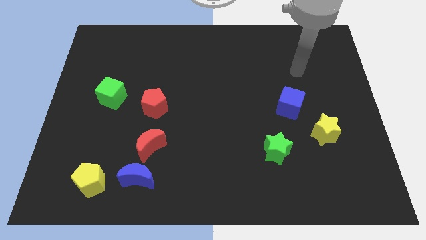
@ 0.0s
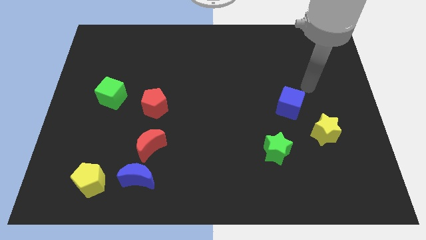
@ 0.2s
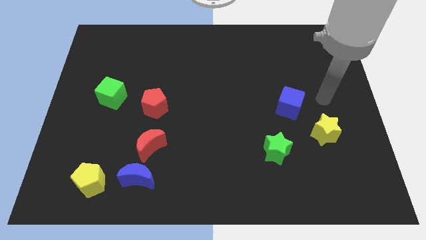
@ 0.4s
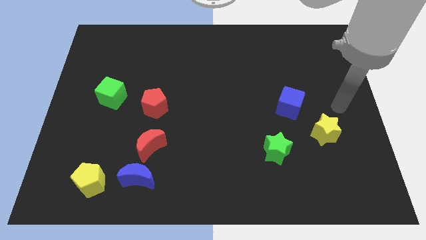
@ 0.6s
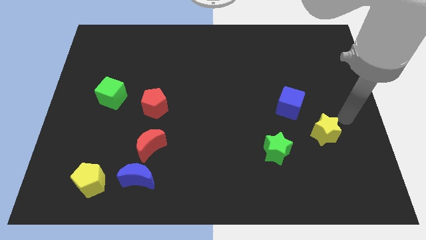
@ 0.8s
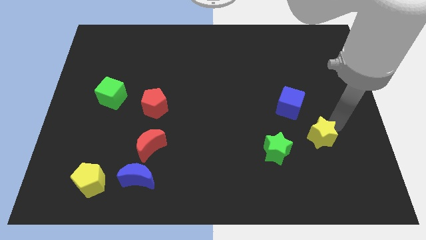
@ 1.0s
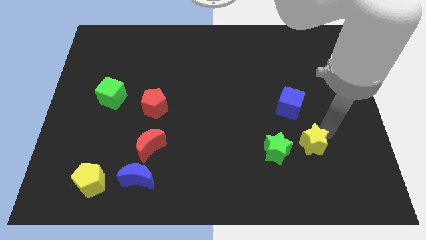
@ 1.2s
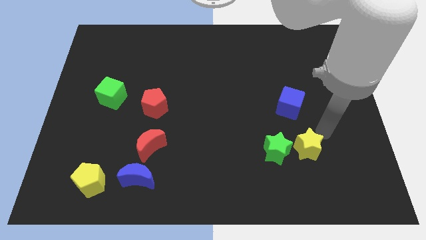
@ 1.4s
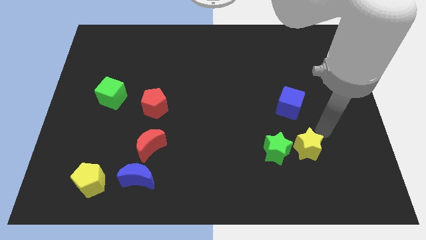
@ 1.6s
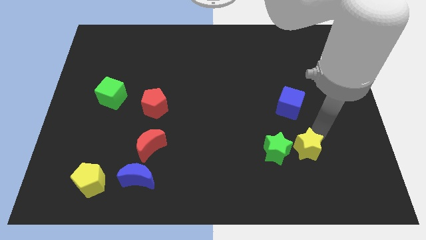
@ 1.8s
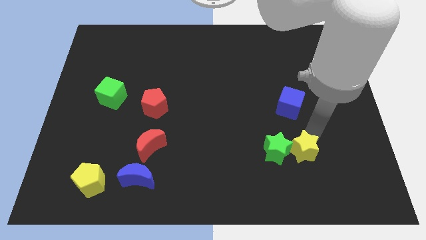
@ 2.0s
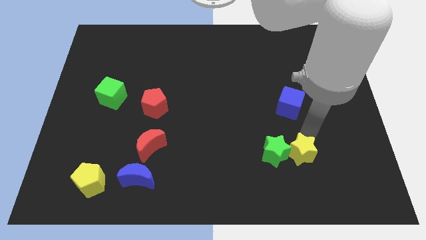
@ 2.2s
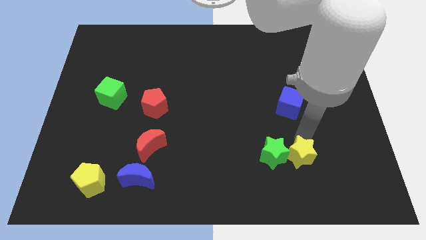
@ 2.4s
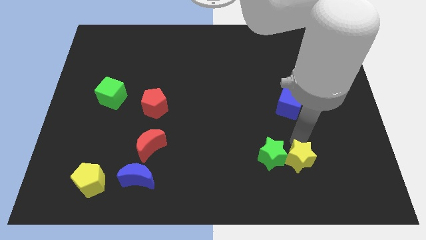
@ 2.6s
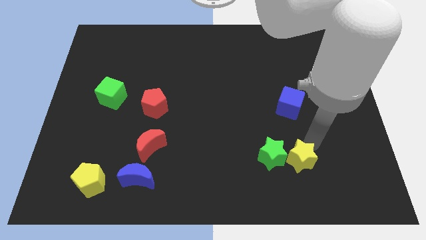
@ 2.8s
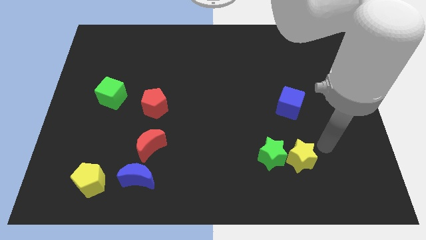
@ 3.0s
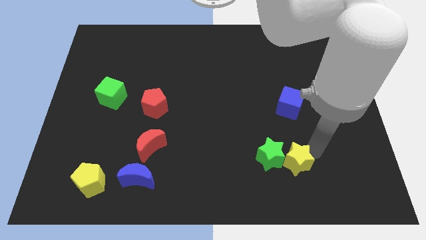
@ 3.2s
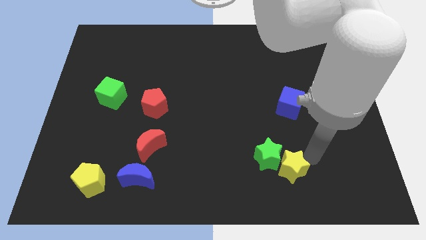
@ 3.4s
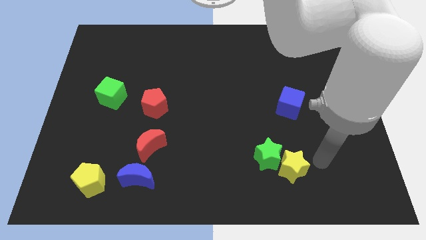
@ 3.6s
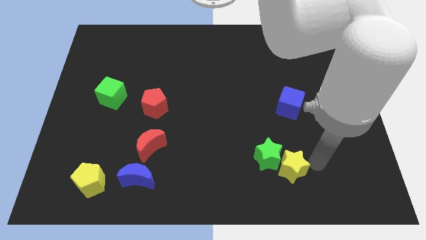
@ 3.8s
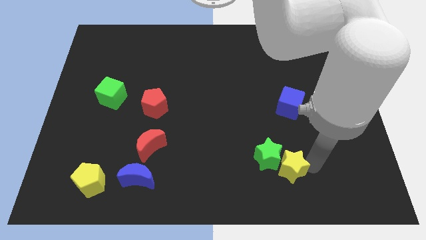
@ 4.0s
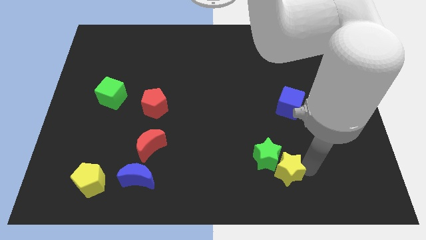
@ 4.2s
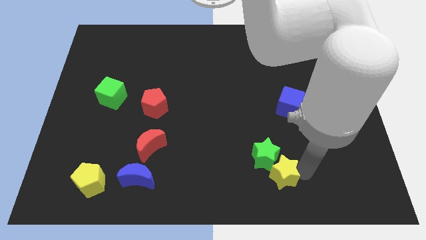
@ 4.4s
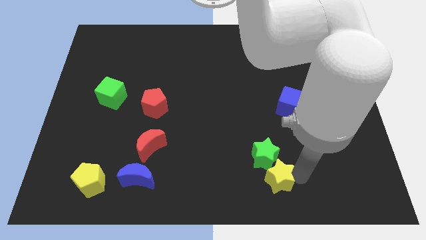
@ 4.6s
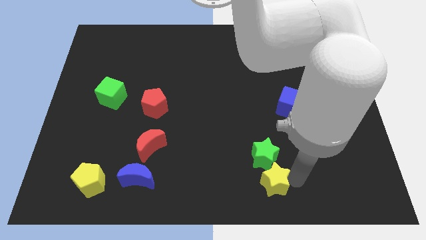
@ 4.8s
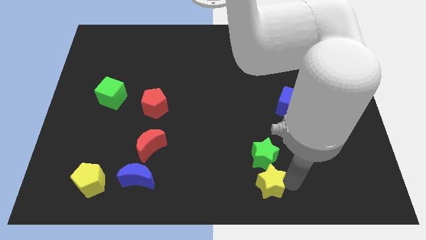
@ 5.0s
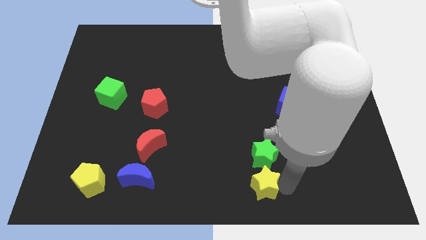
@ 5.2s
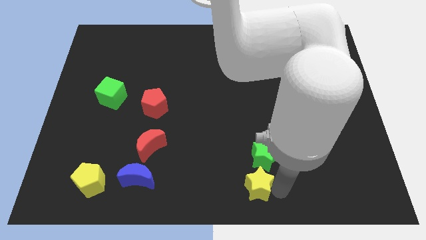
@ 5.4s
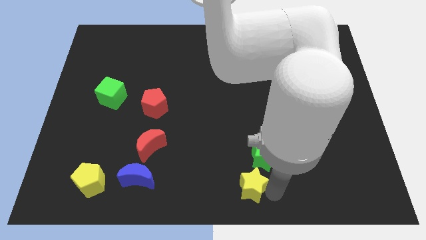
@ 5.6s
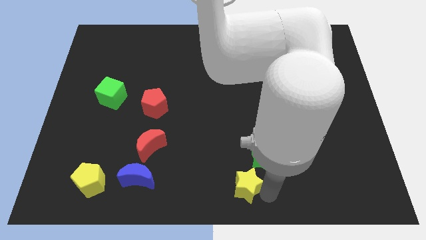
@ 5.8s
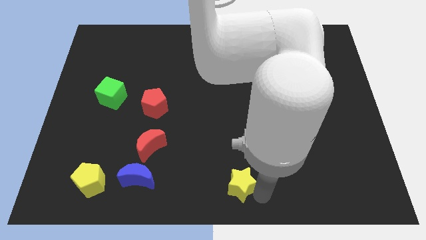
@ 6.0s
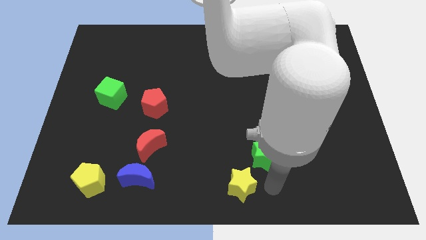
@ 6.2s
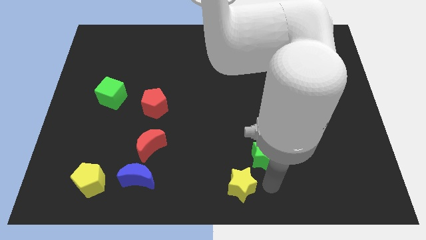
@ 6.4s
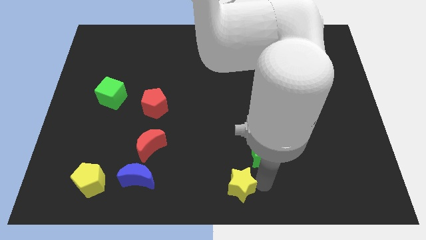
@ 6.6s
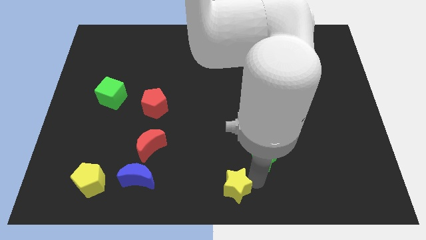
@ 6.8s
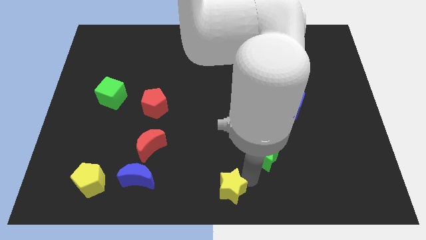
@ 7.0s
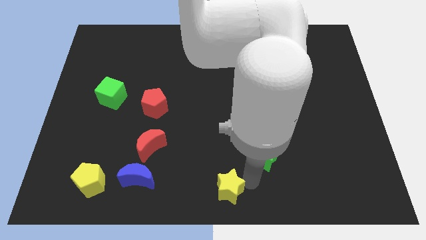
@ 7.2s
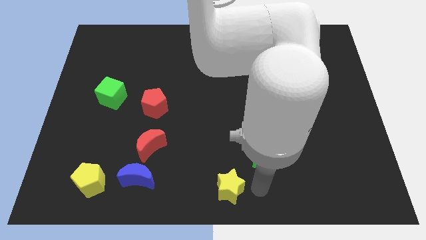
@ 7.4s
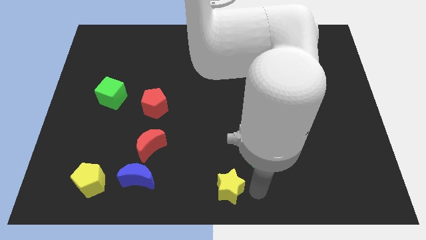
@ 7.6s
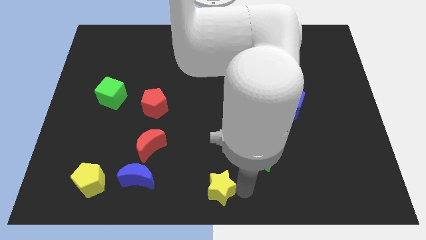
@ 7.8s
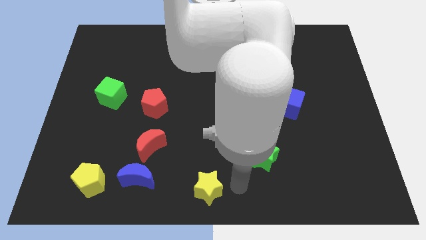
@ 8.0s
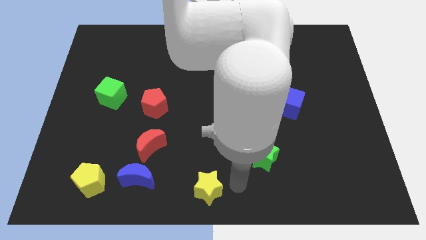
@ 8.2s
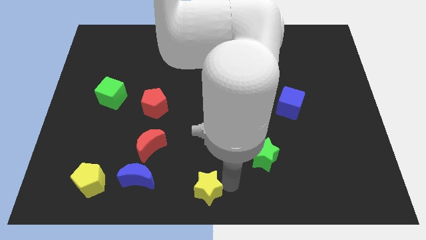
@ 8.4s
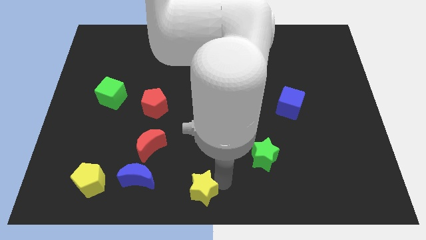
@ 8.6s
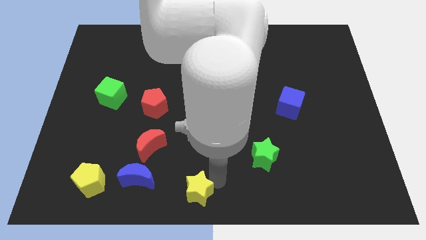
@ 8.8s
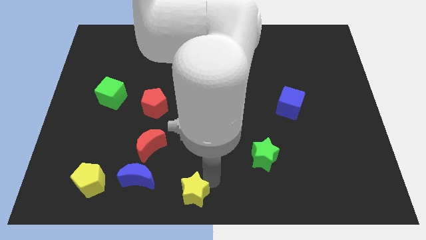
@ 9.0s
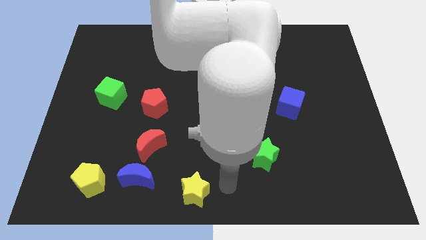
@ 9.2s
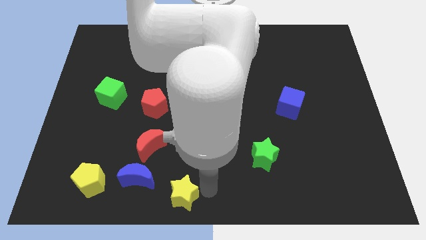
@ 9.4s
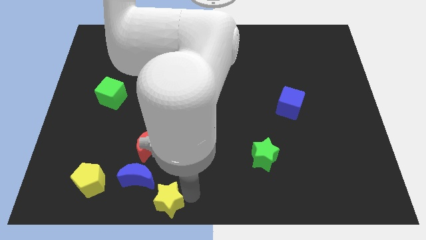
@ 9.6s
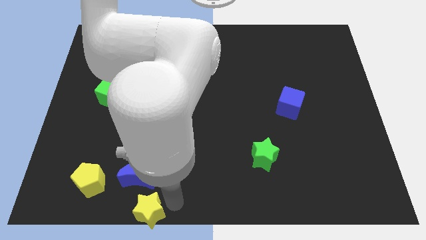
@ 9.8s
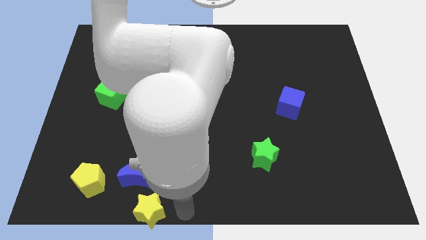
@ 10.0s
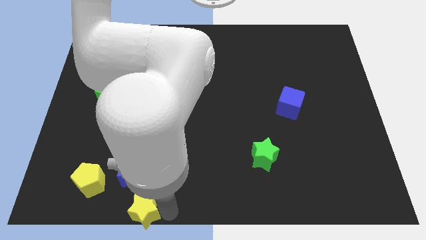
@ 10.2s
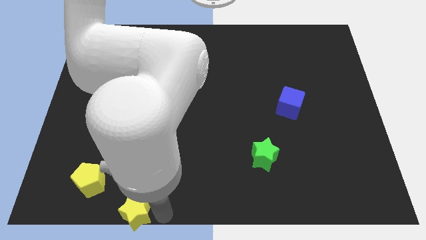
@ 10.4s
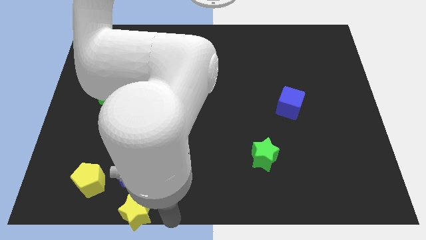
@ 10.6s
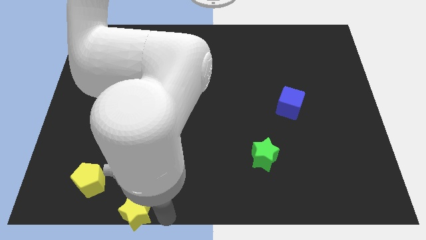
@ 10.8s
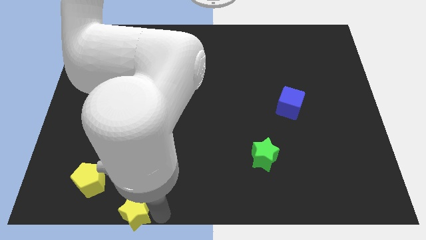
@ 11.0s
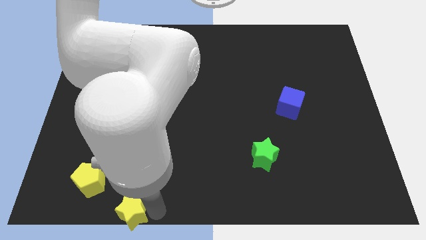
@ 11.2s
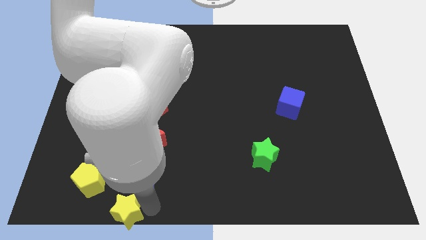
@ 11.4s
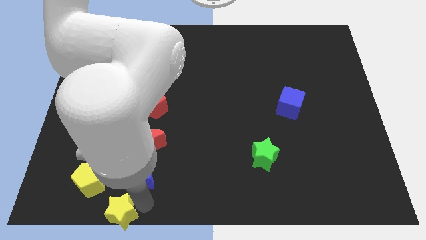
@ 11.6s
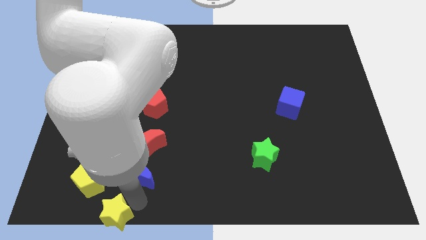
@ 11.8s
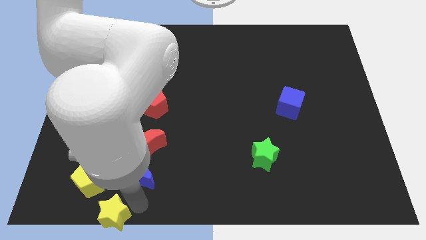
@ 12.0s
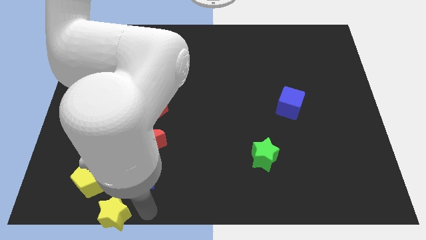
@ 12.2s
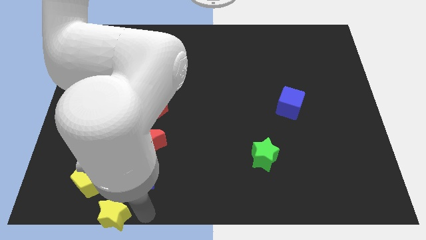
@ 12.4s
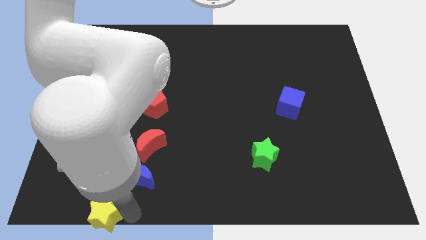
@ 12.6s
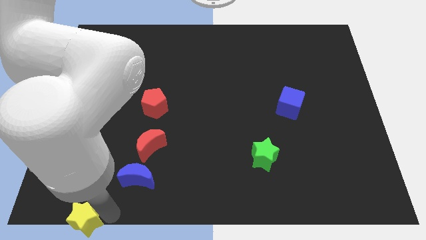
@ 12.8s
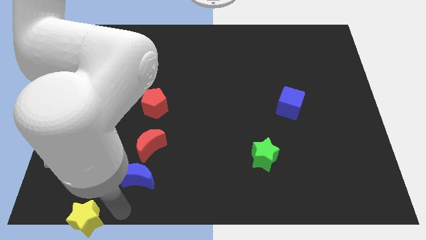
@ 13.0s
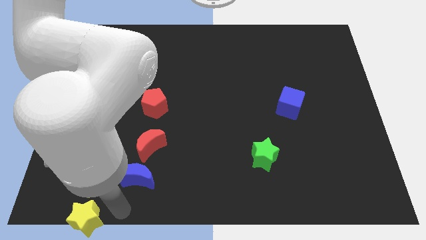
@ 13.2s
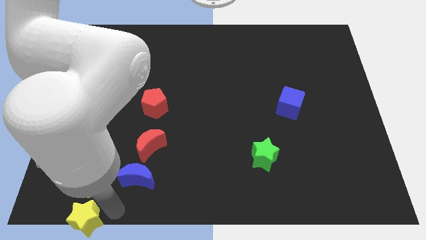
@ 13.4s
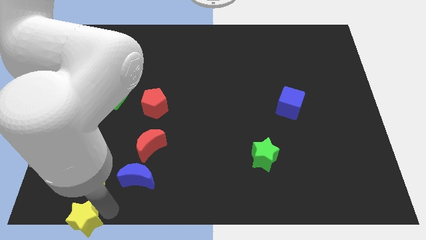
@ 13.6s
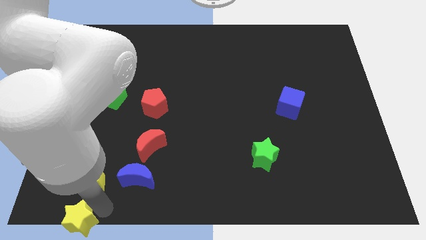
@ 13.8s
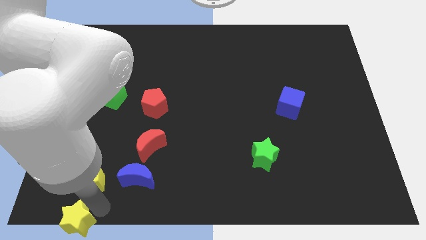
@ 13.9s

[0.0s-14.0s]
move the yellow star to the bottom left of the board
